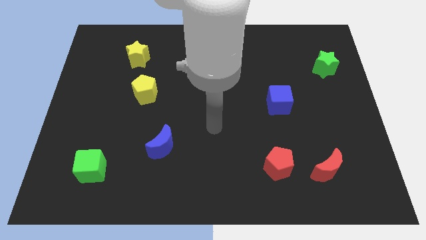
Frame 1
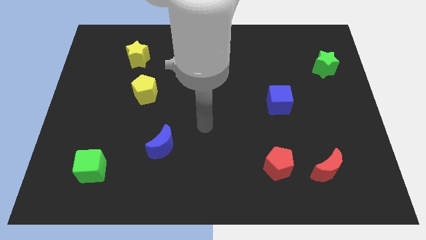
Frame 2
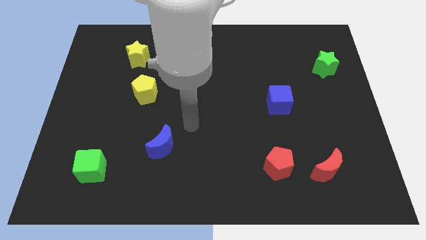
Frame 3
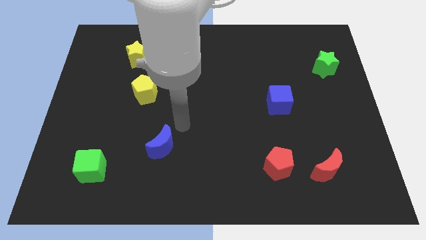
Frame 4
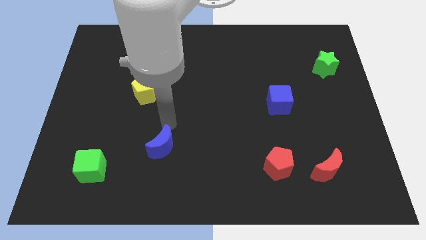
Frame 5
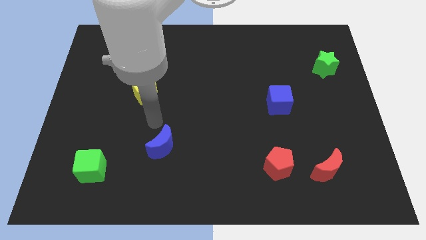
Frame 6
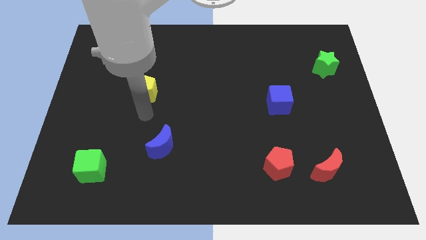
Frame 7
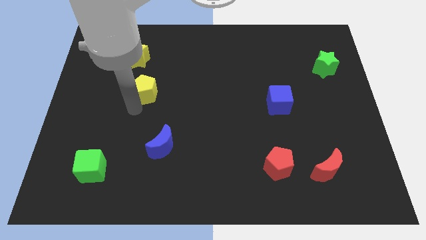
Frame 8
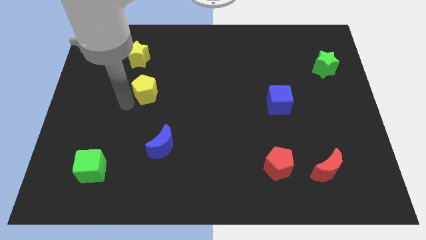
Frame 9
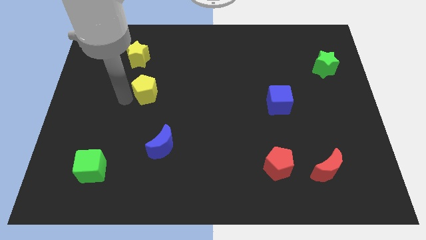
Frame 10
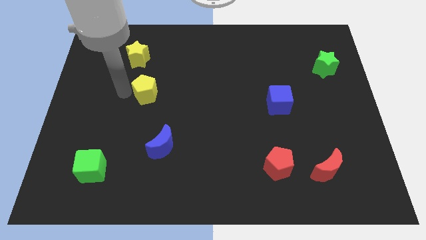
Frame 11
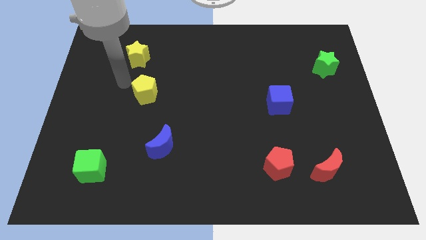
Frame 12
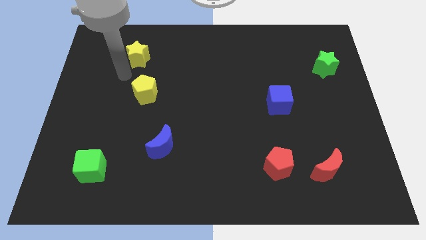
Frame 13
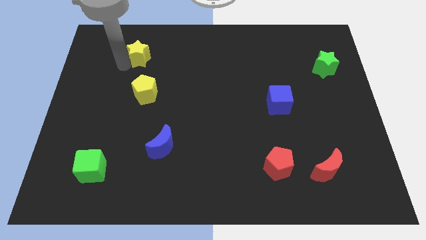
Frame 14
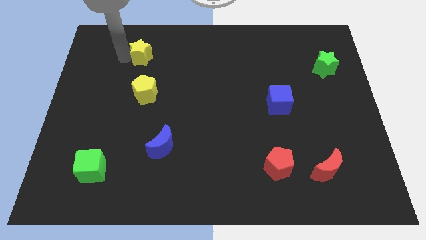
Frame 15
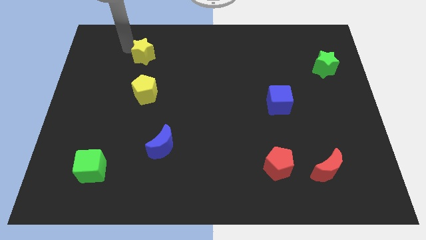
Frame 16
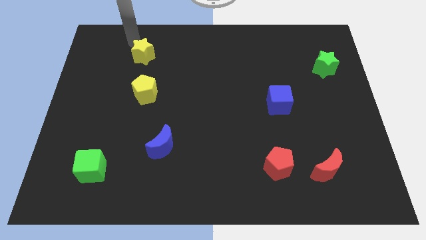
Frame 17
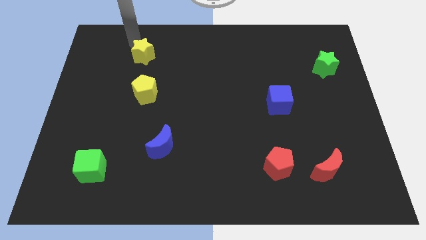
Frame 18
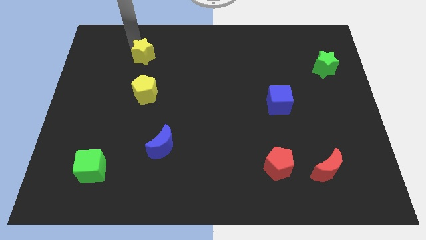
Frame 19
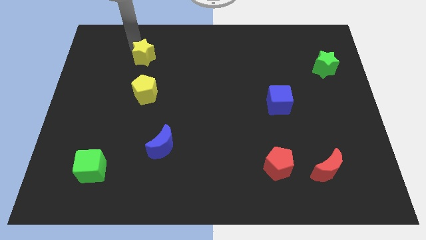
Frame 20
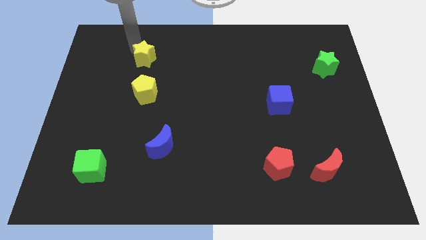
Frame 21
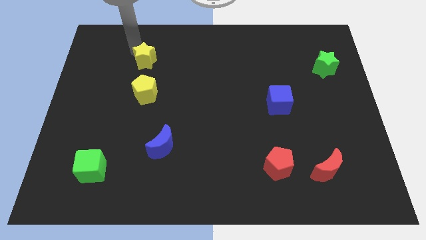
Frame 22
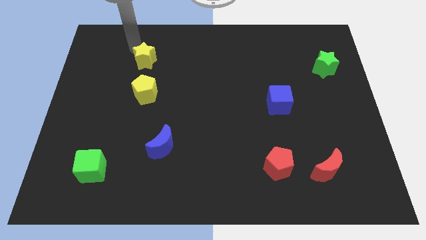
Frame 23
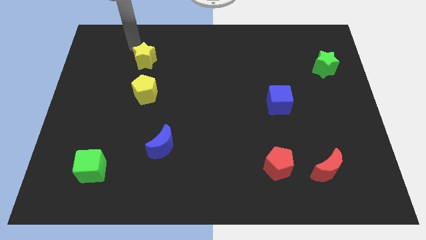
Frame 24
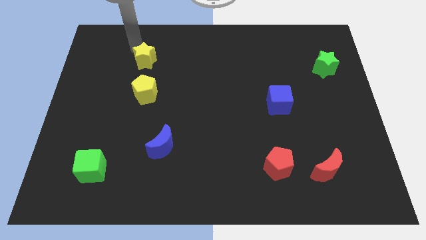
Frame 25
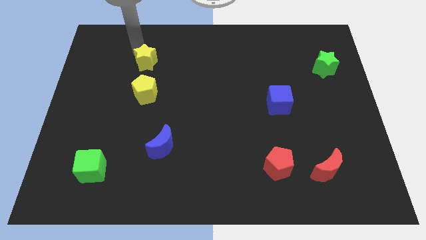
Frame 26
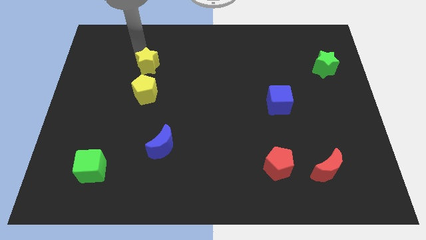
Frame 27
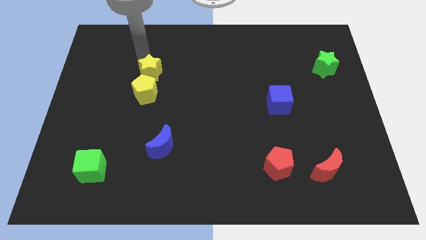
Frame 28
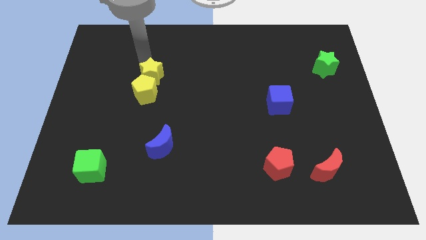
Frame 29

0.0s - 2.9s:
push the yellow star downwards and right slightly

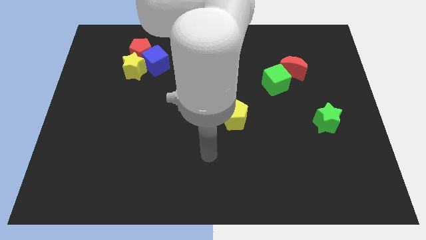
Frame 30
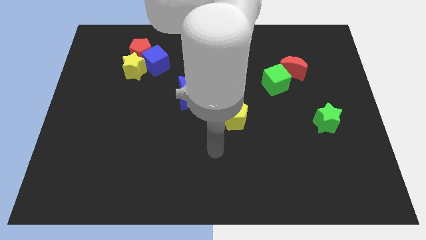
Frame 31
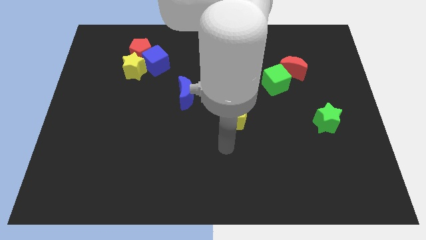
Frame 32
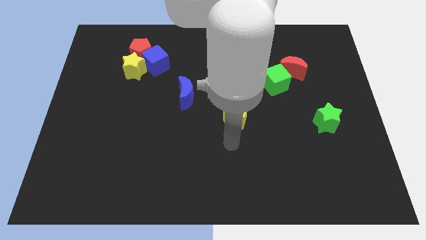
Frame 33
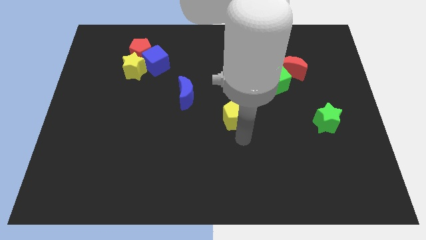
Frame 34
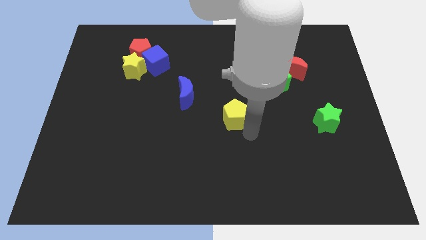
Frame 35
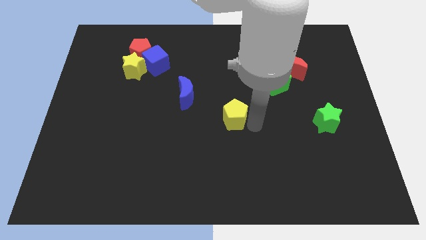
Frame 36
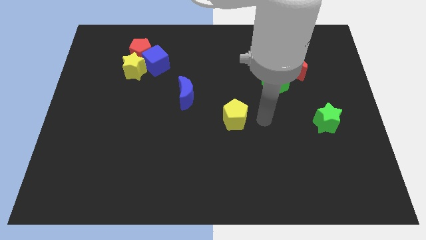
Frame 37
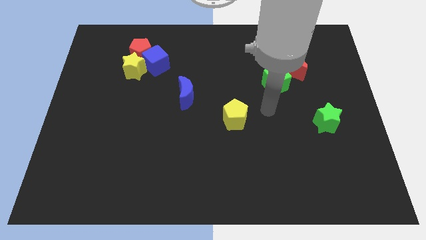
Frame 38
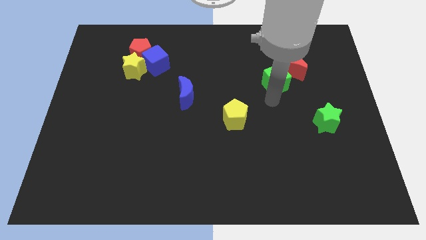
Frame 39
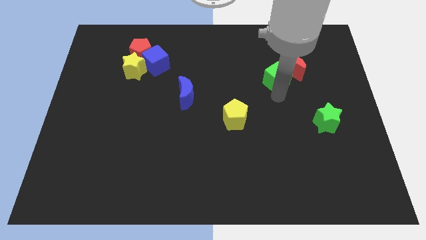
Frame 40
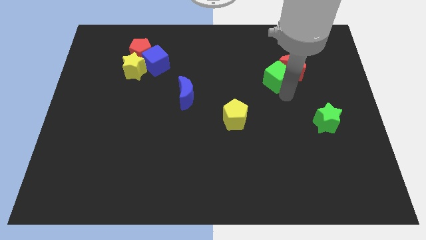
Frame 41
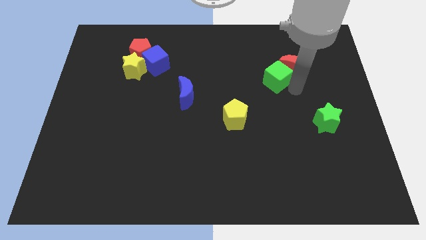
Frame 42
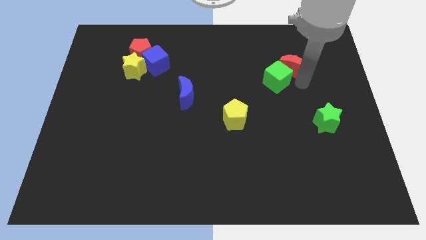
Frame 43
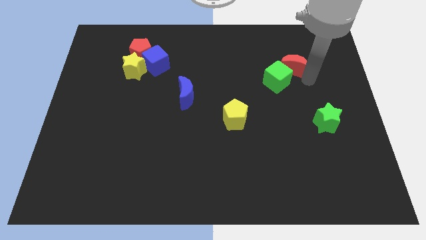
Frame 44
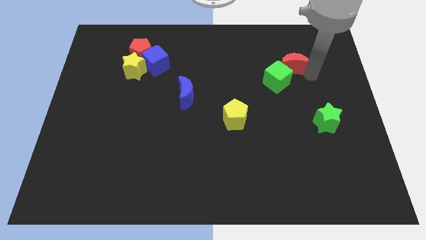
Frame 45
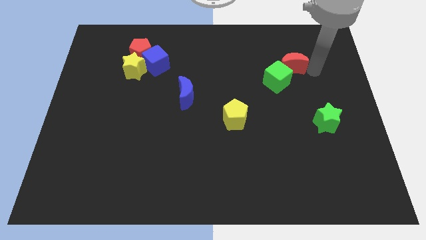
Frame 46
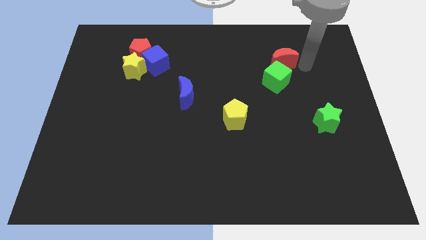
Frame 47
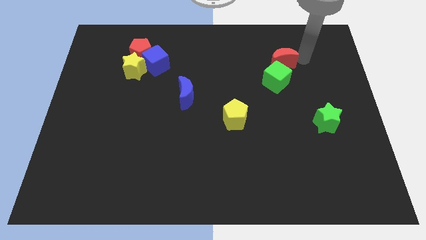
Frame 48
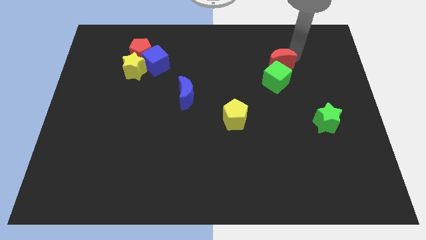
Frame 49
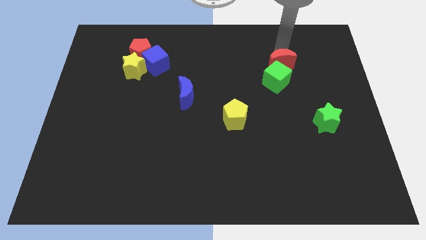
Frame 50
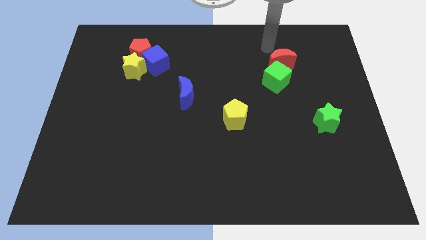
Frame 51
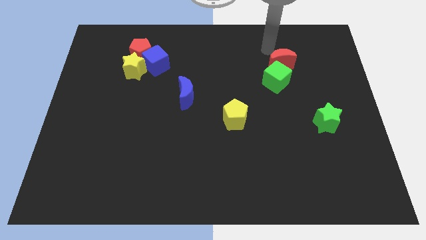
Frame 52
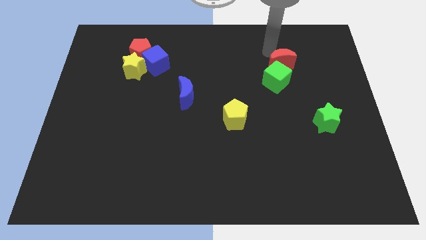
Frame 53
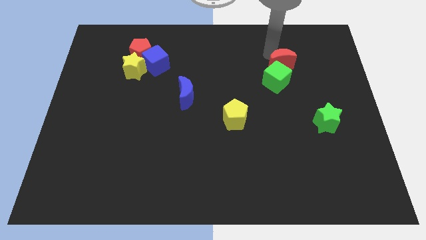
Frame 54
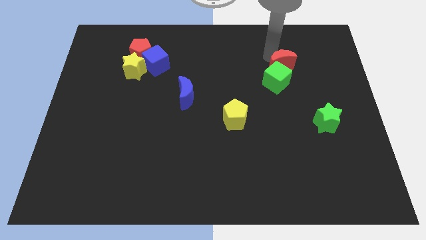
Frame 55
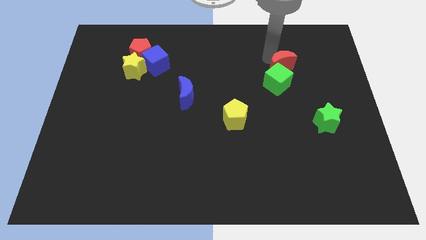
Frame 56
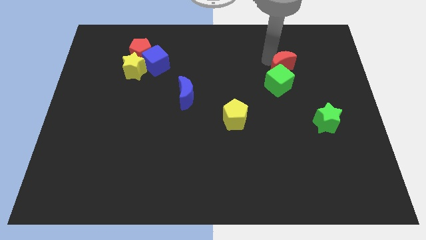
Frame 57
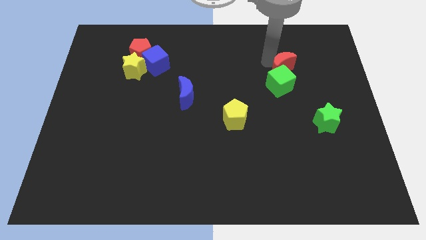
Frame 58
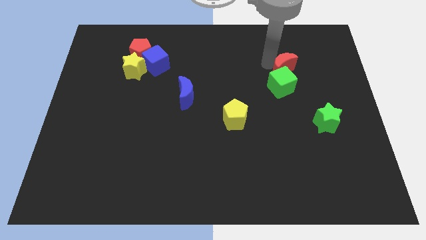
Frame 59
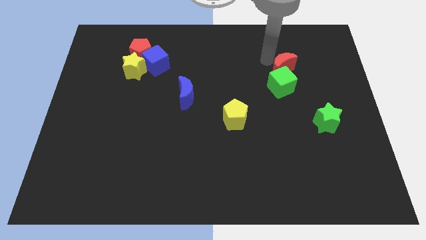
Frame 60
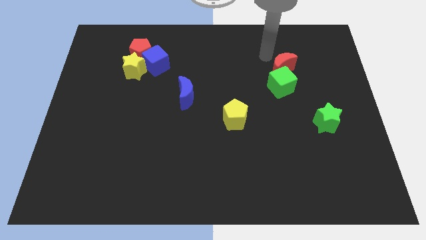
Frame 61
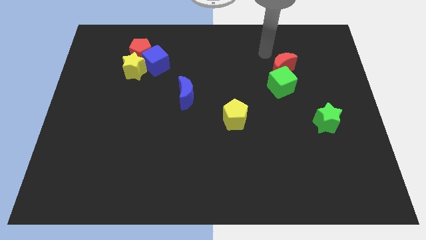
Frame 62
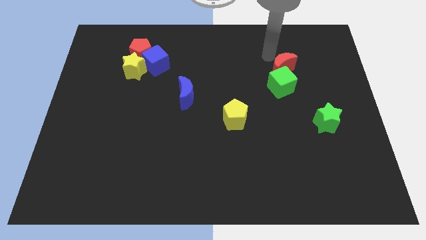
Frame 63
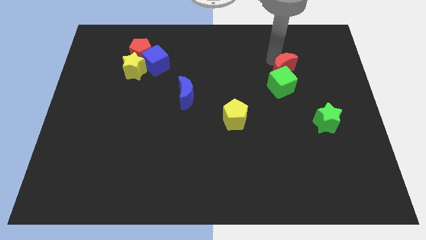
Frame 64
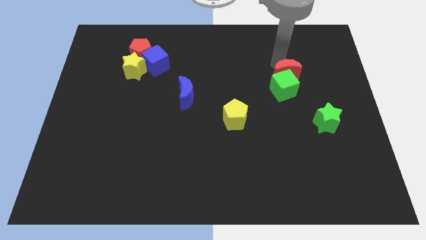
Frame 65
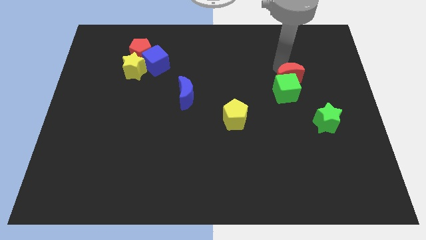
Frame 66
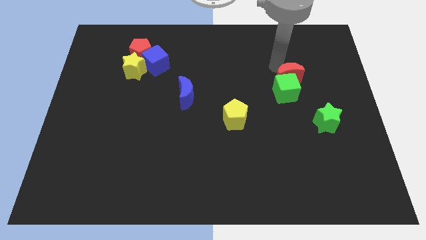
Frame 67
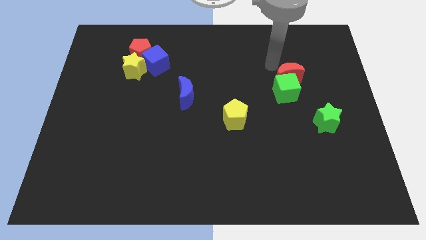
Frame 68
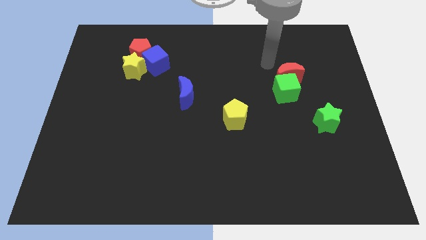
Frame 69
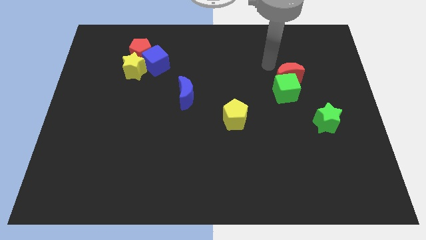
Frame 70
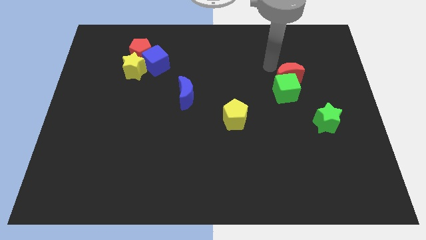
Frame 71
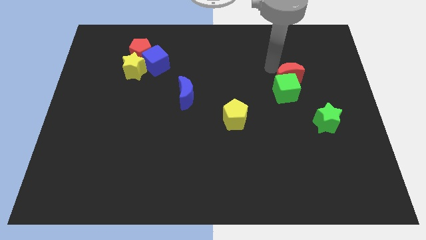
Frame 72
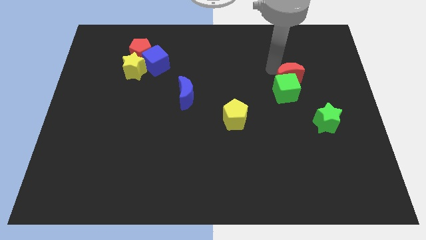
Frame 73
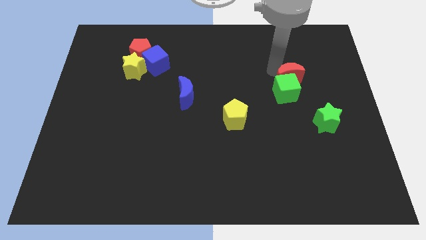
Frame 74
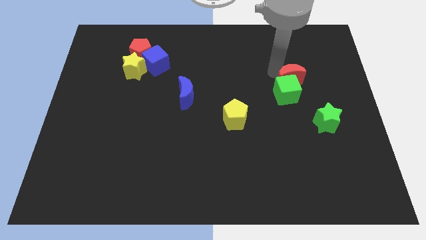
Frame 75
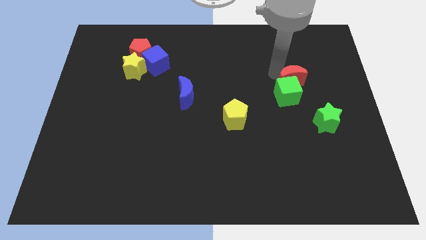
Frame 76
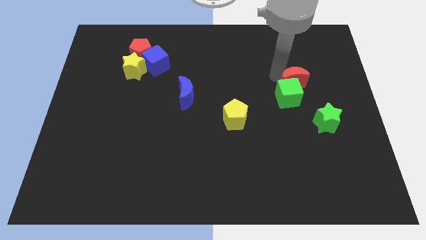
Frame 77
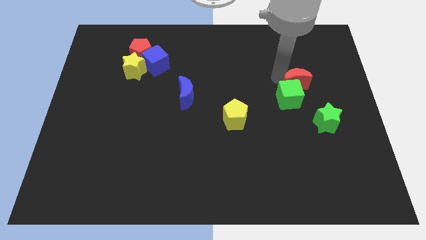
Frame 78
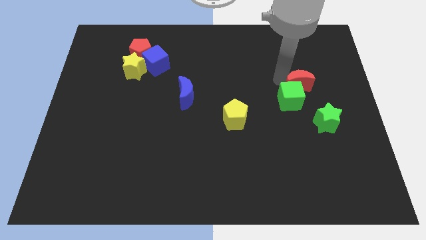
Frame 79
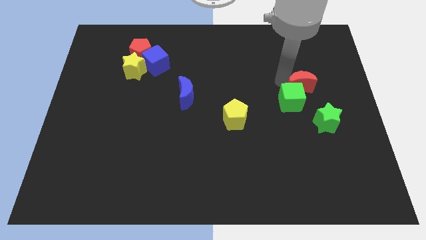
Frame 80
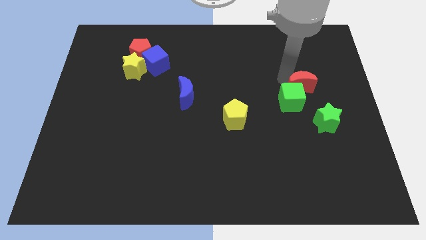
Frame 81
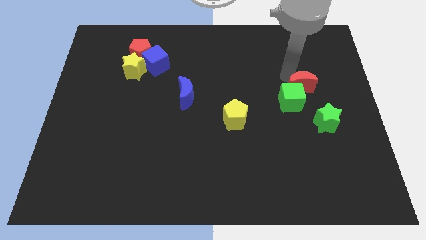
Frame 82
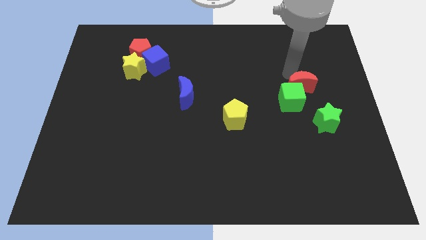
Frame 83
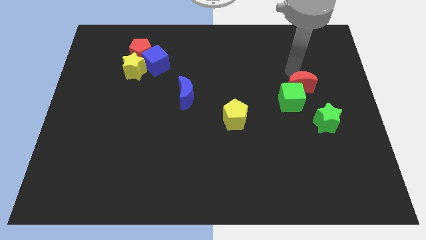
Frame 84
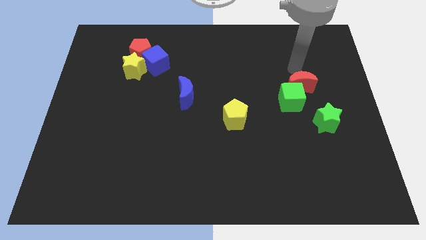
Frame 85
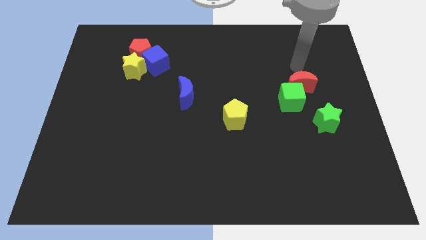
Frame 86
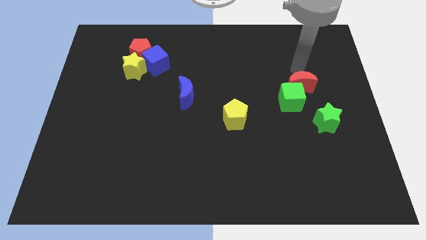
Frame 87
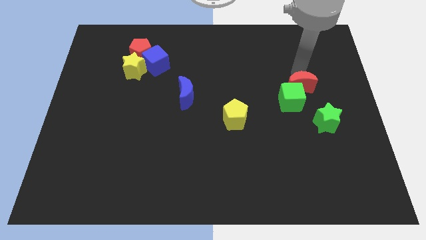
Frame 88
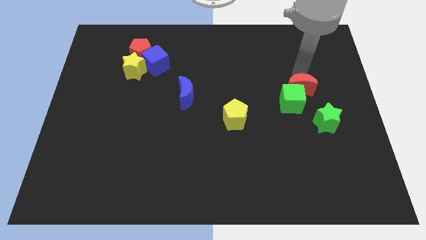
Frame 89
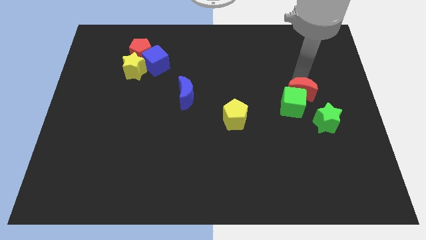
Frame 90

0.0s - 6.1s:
push the red moon downwards somewhat
